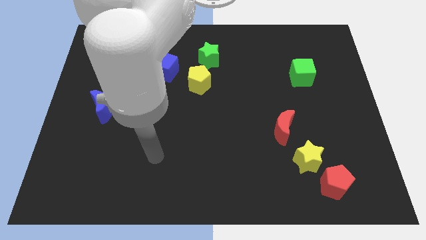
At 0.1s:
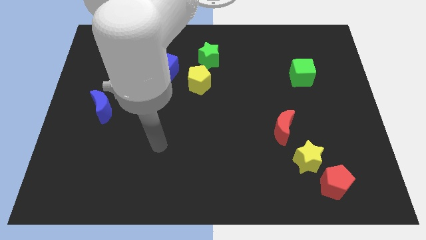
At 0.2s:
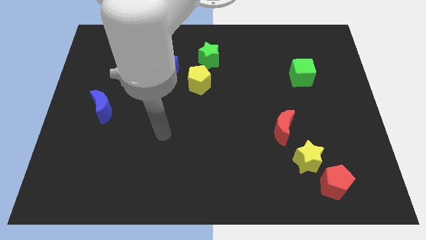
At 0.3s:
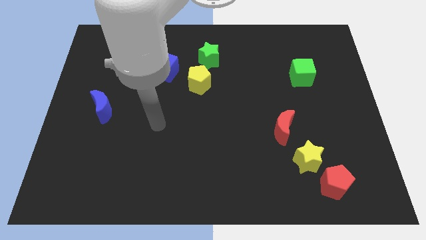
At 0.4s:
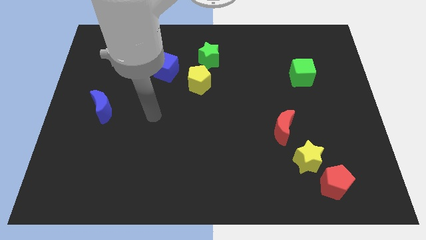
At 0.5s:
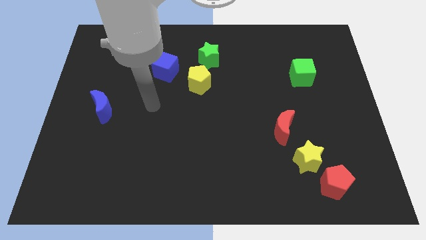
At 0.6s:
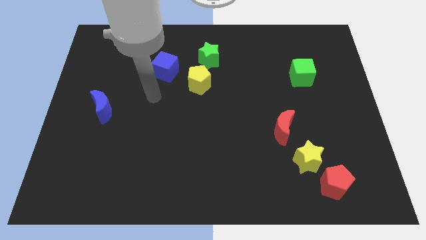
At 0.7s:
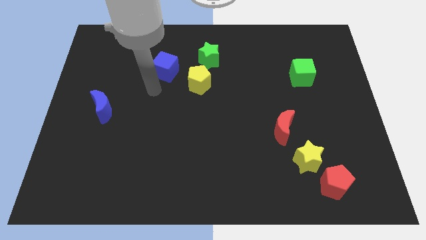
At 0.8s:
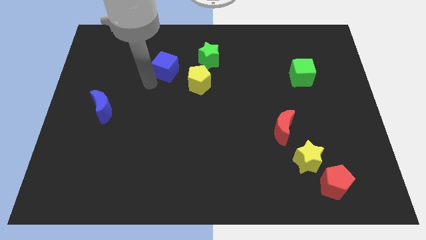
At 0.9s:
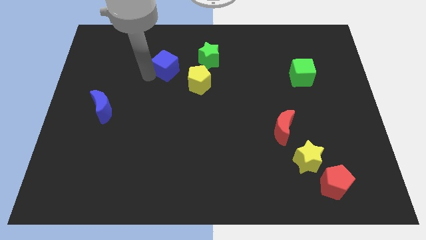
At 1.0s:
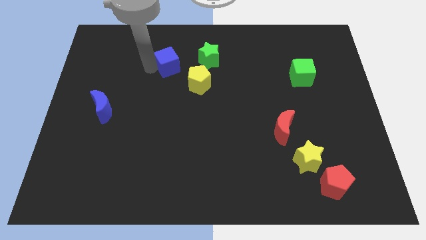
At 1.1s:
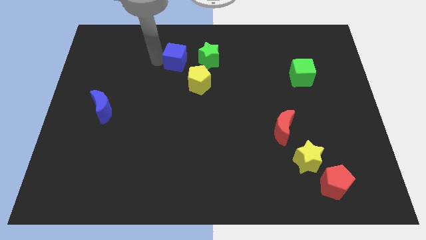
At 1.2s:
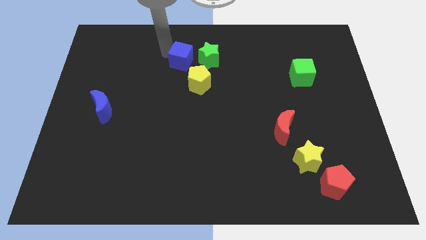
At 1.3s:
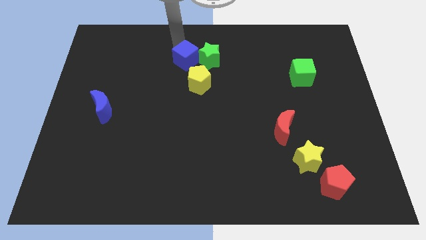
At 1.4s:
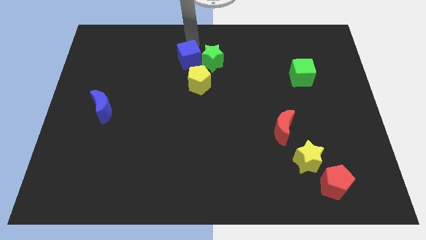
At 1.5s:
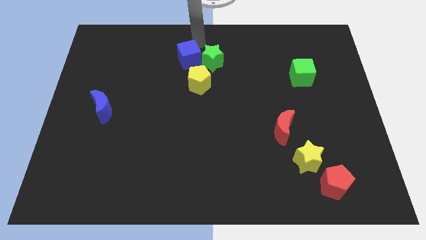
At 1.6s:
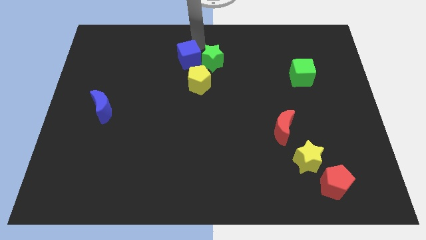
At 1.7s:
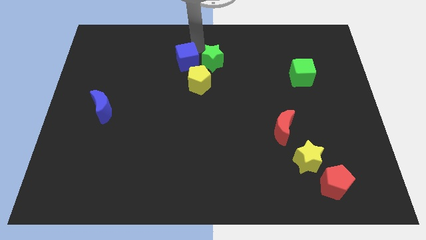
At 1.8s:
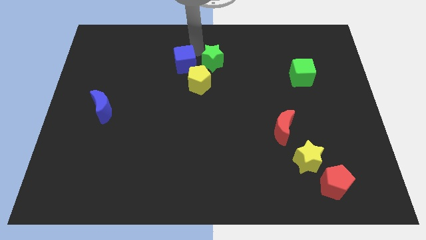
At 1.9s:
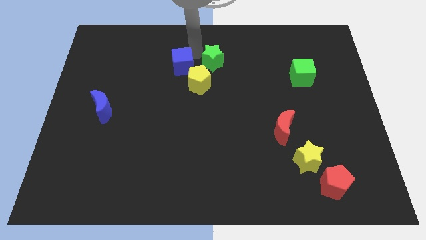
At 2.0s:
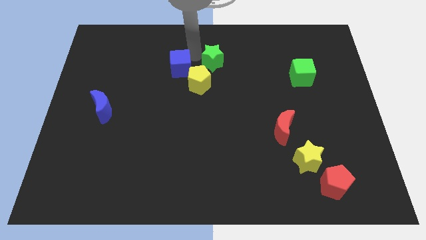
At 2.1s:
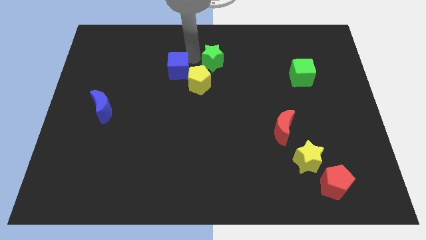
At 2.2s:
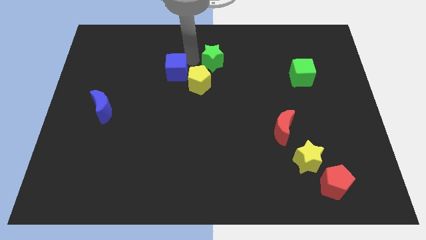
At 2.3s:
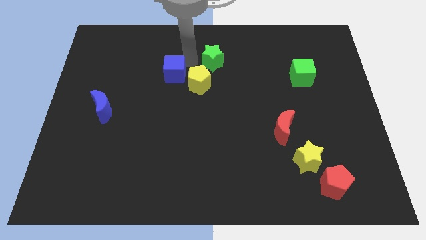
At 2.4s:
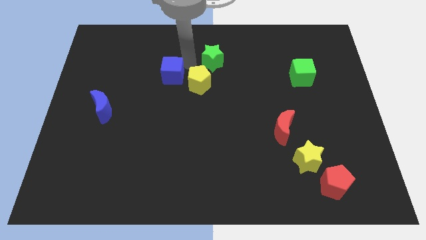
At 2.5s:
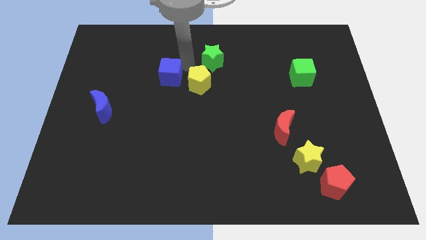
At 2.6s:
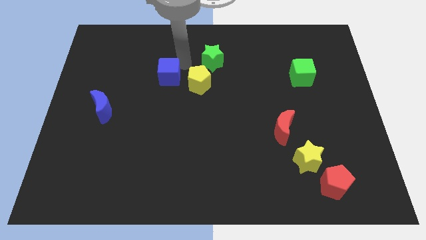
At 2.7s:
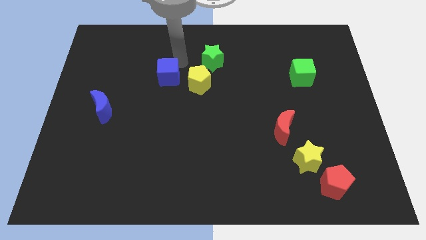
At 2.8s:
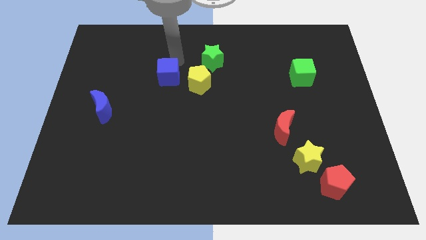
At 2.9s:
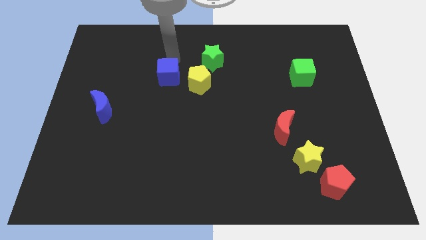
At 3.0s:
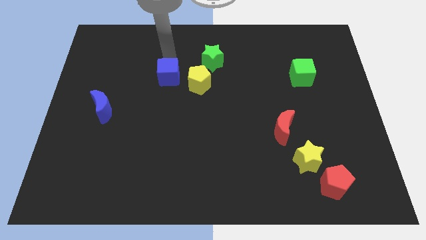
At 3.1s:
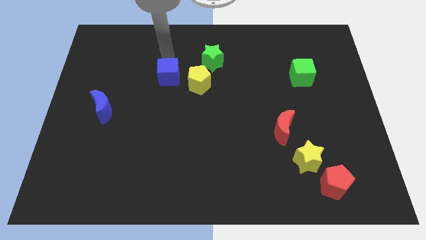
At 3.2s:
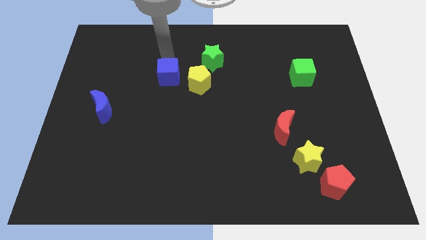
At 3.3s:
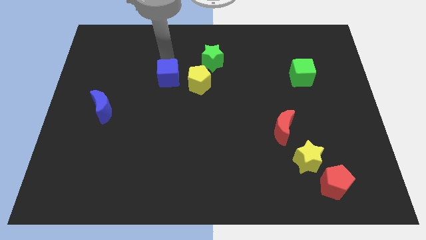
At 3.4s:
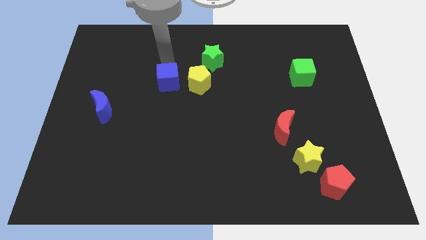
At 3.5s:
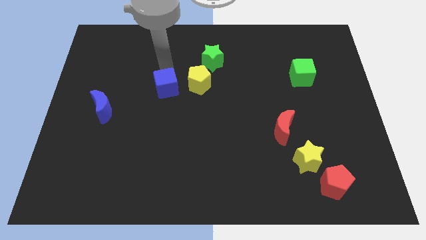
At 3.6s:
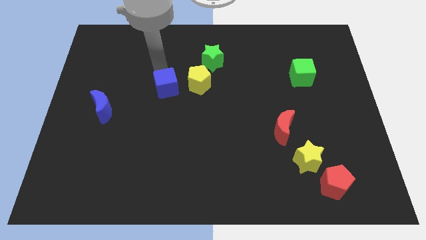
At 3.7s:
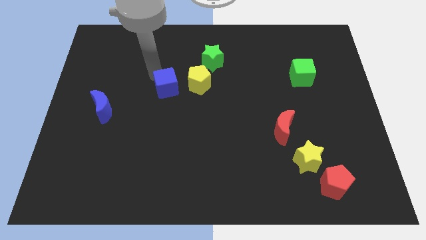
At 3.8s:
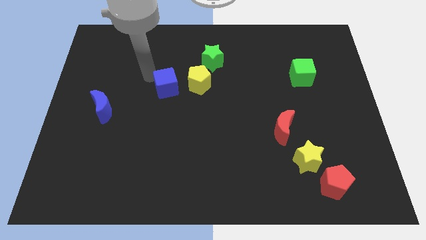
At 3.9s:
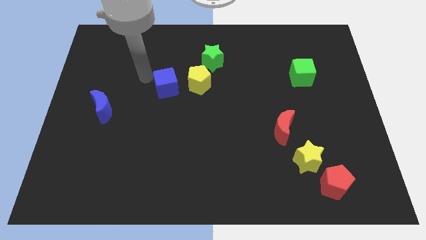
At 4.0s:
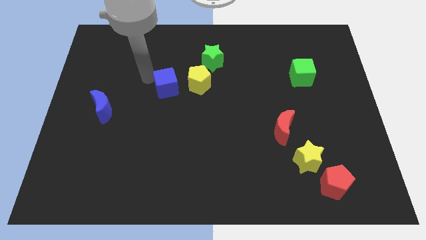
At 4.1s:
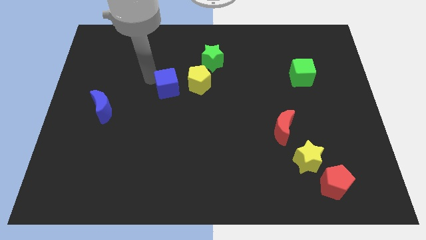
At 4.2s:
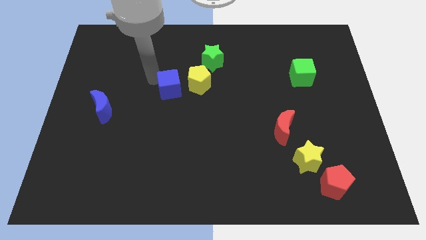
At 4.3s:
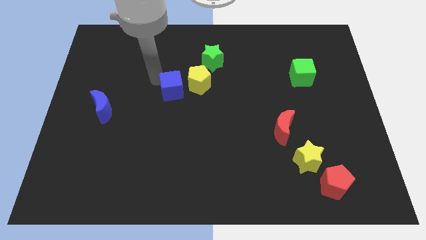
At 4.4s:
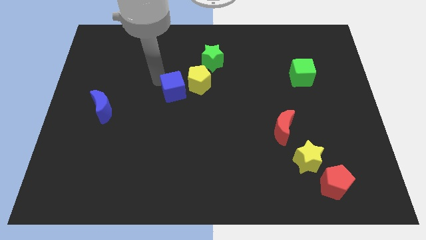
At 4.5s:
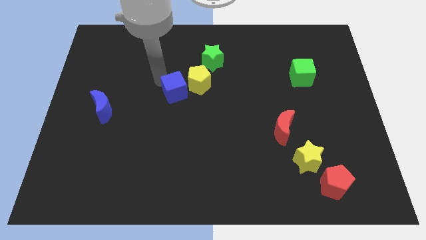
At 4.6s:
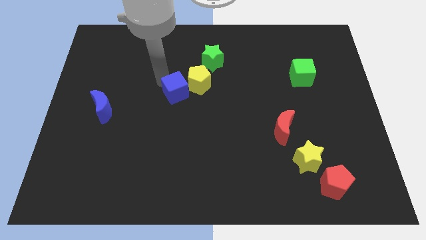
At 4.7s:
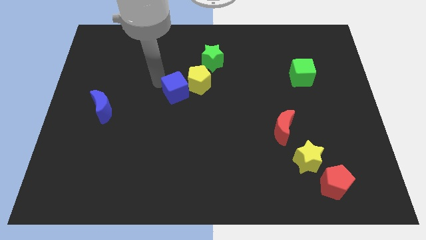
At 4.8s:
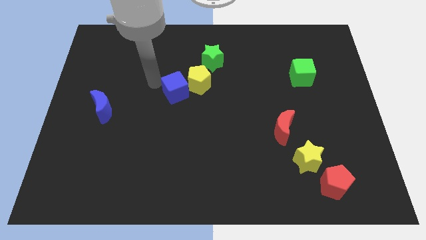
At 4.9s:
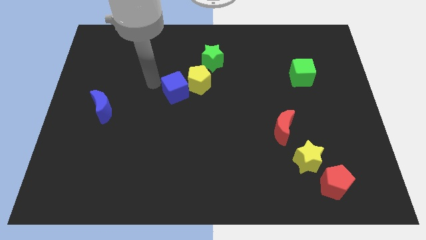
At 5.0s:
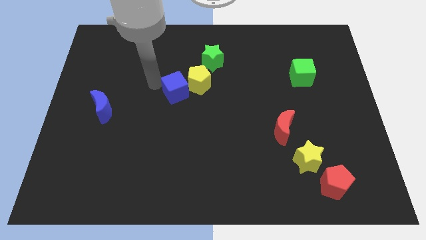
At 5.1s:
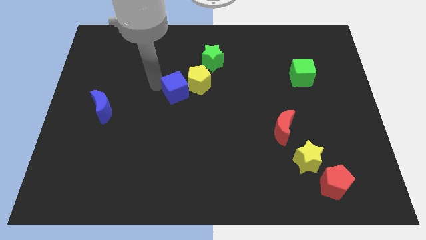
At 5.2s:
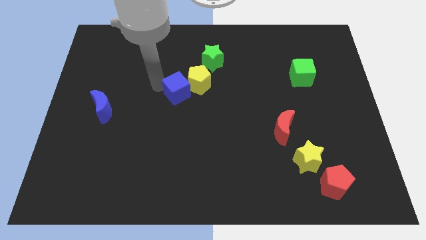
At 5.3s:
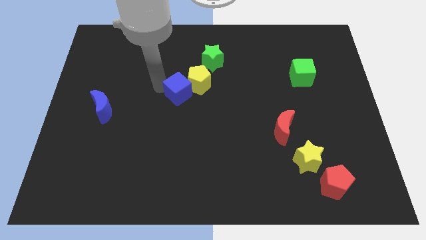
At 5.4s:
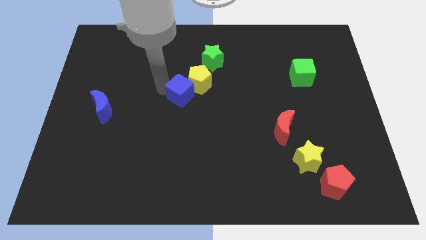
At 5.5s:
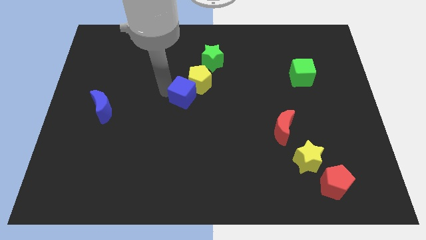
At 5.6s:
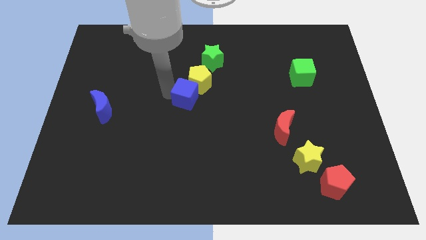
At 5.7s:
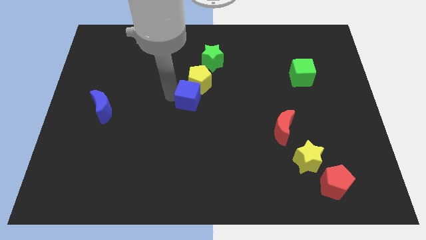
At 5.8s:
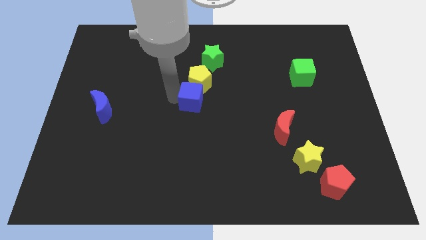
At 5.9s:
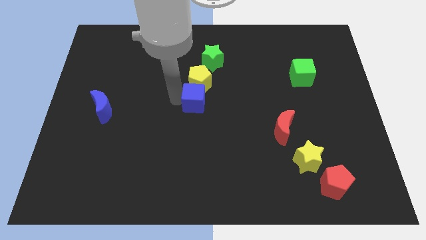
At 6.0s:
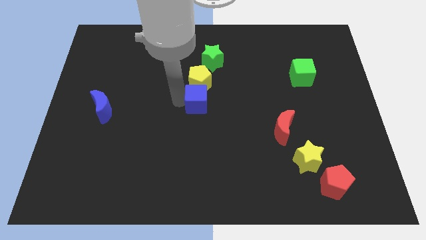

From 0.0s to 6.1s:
push the blue cube to the bottom right of the yellow pentagon
